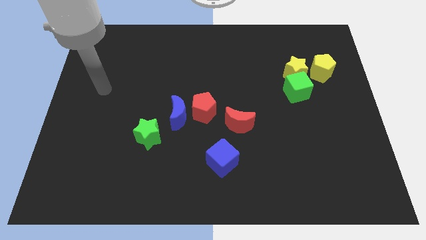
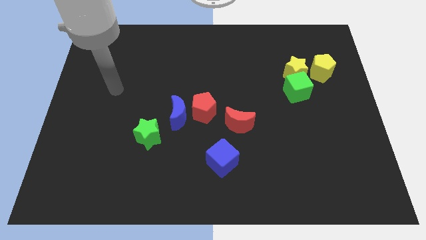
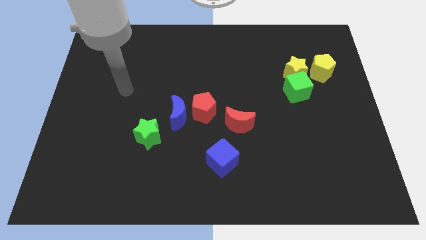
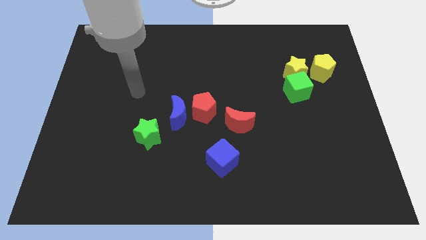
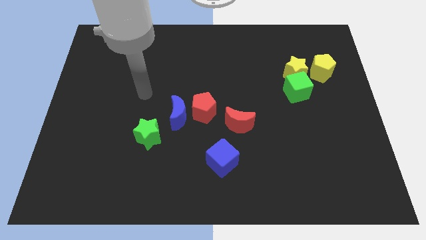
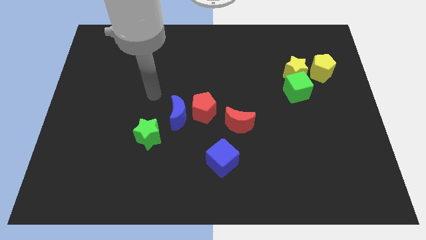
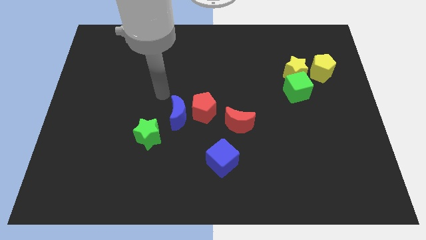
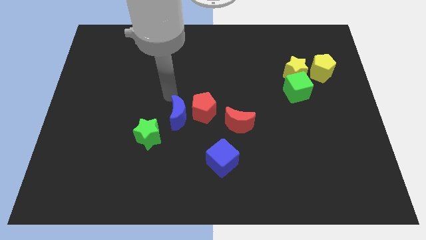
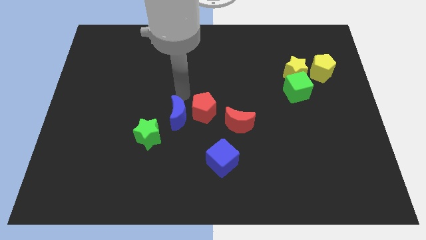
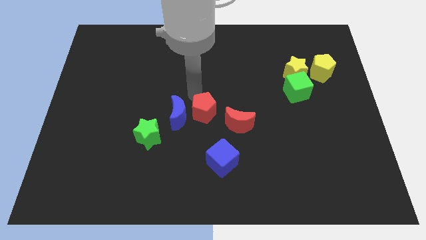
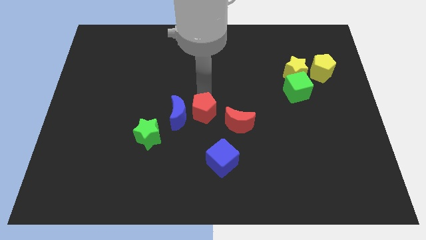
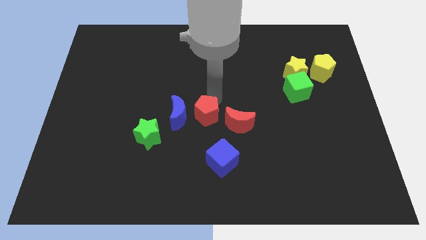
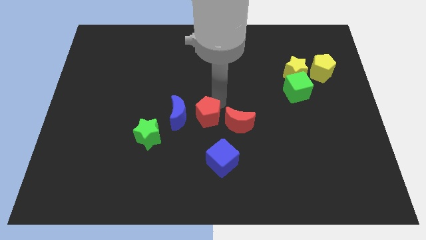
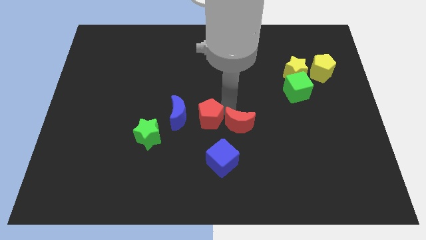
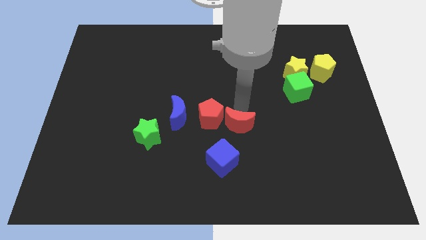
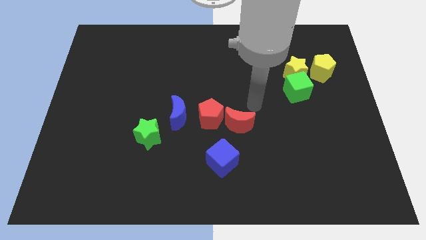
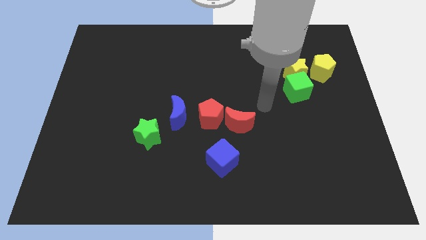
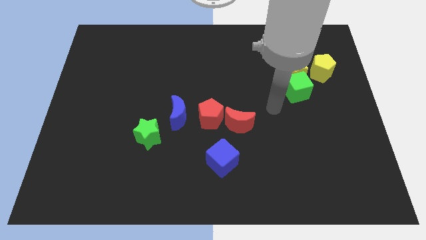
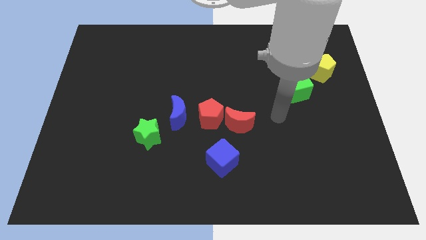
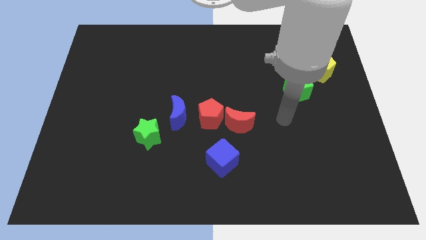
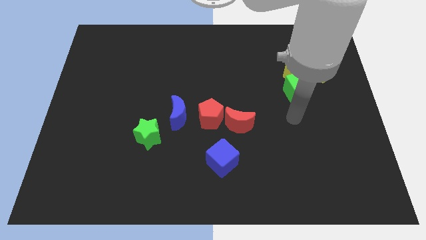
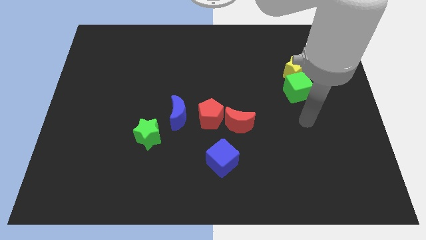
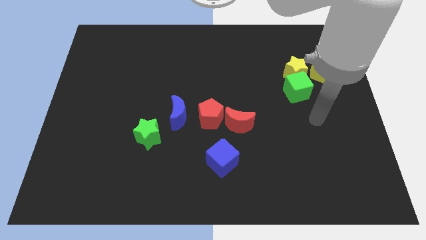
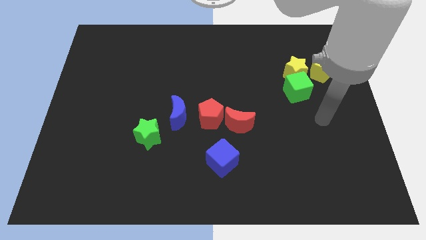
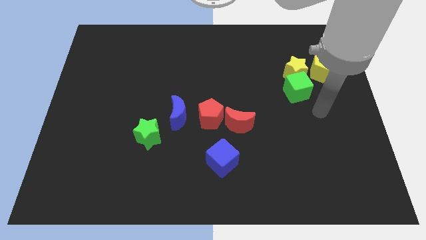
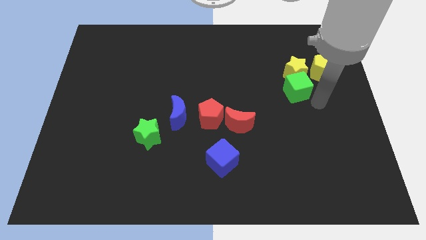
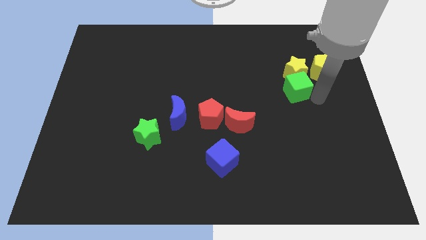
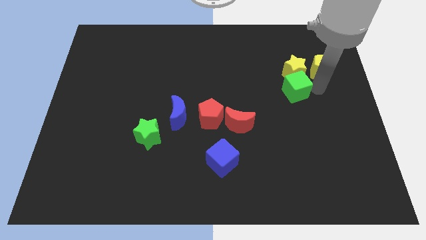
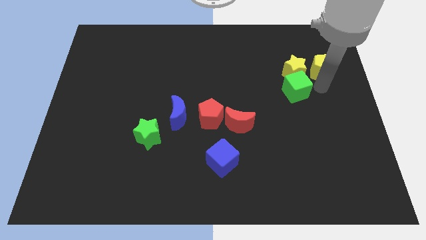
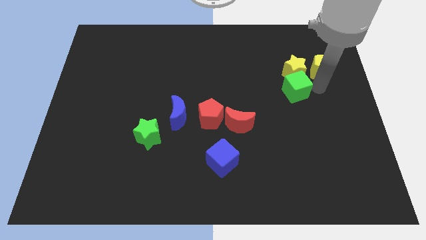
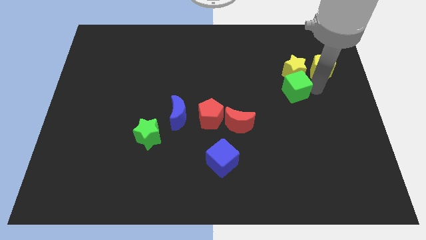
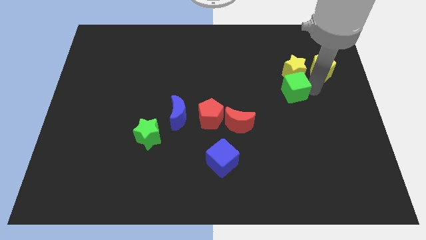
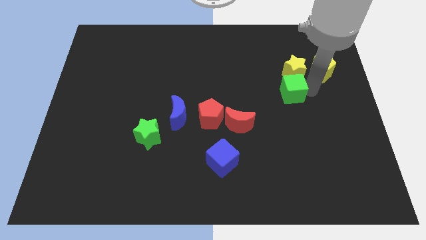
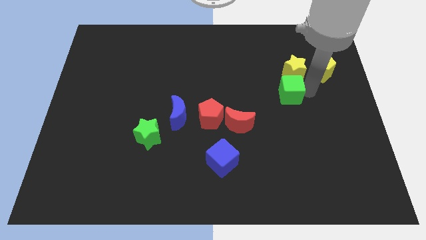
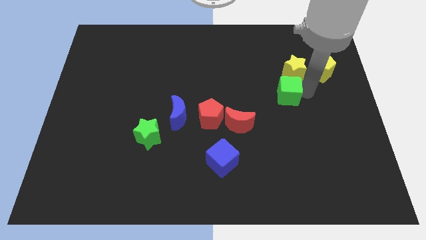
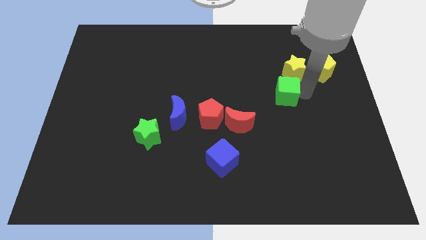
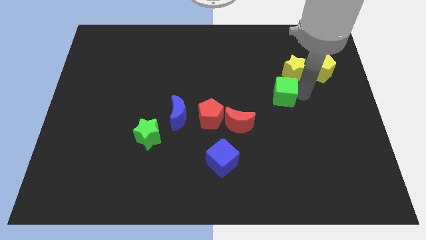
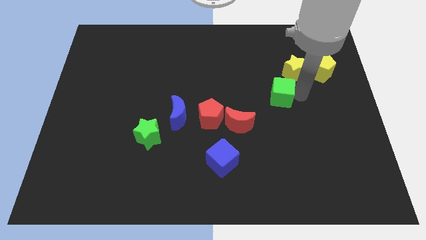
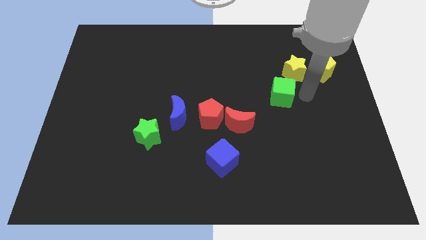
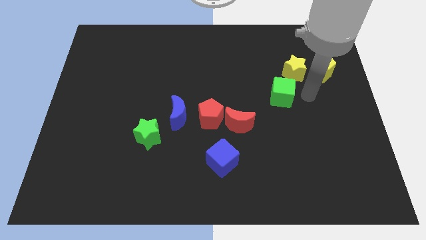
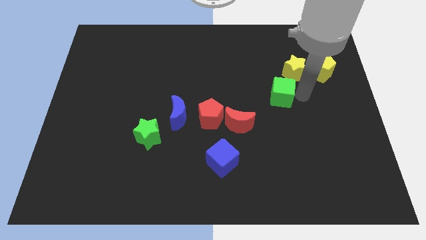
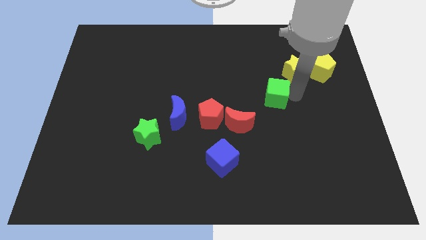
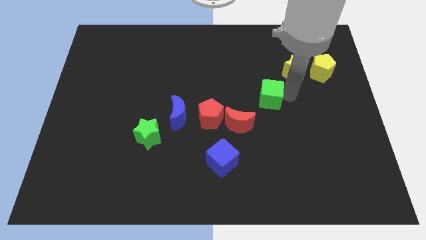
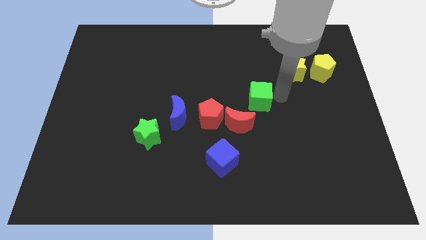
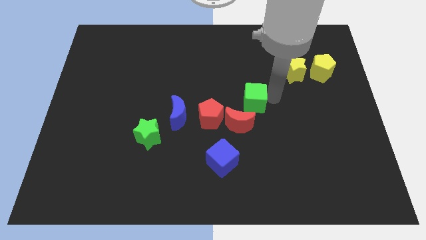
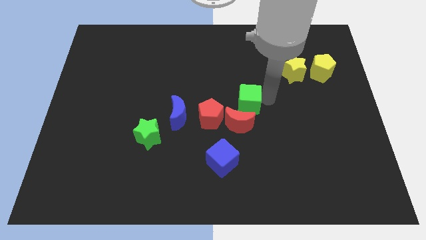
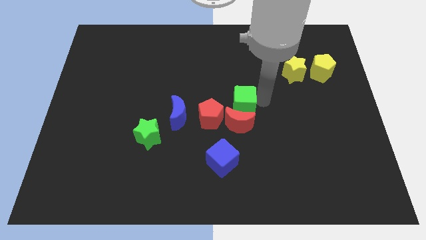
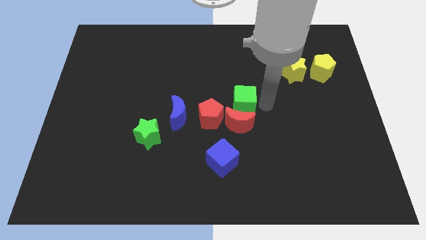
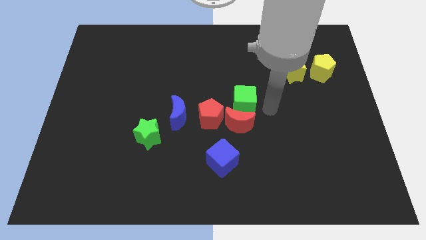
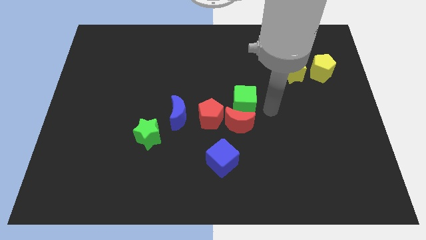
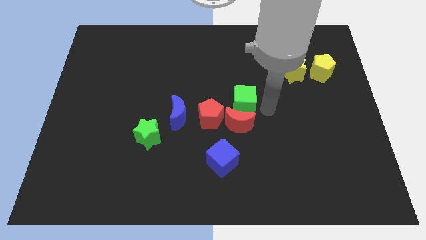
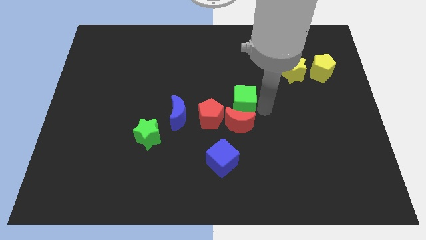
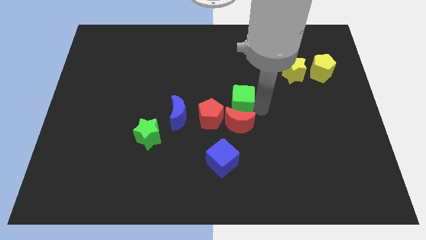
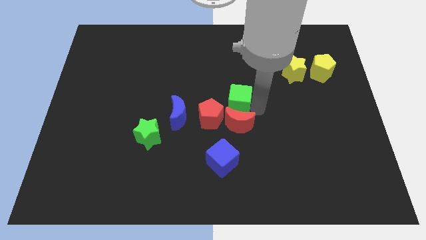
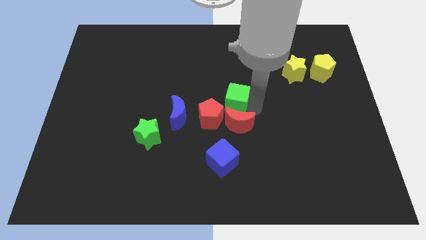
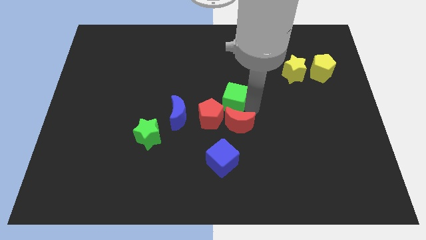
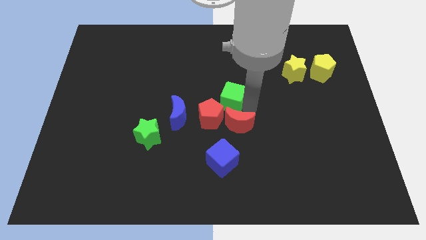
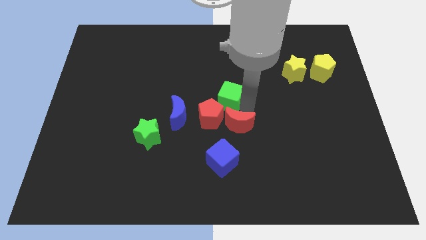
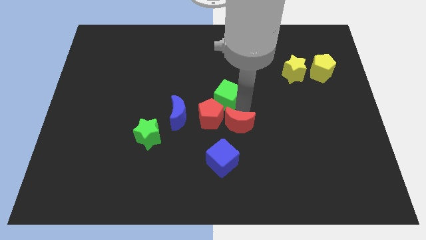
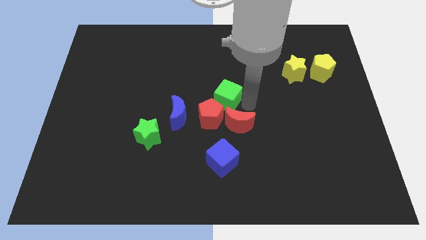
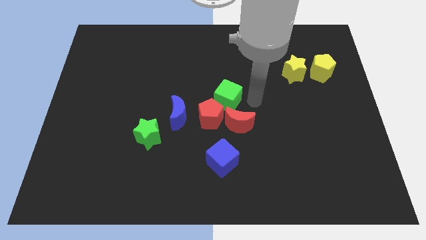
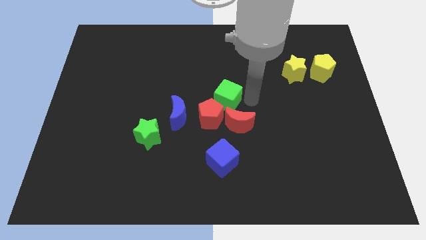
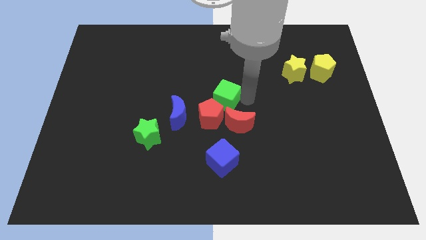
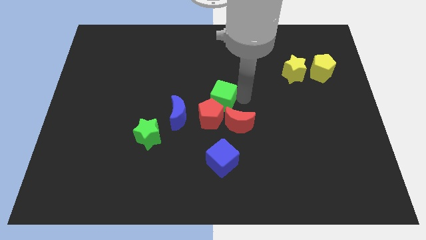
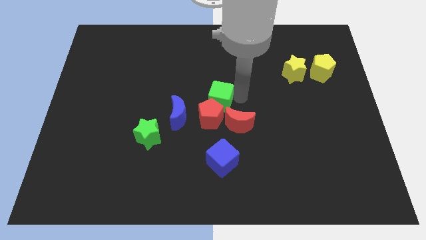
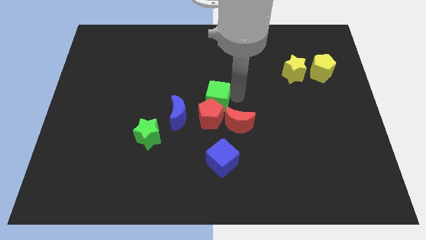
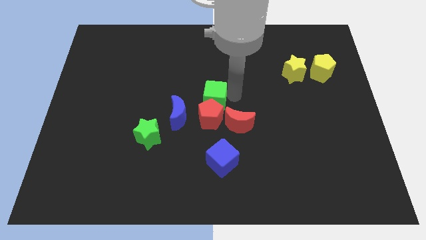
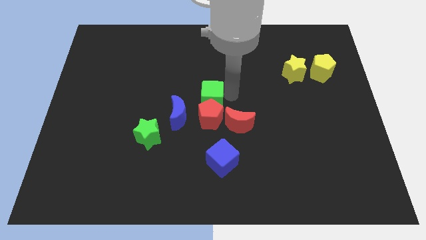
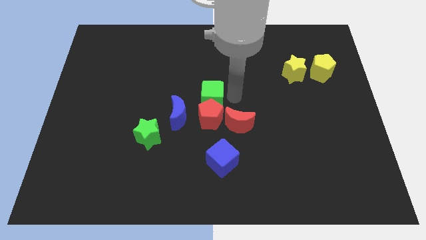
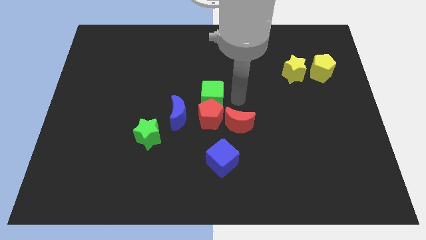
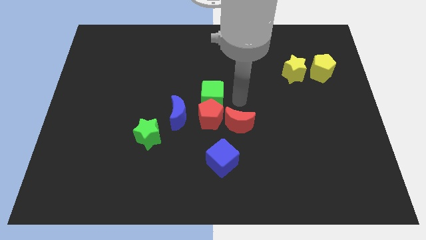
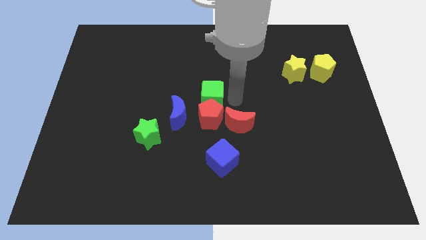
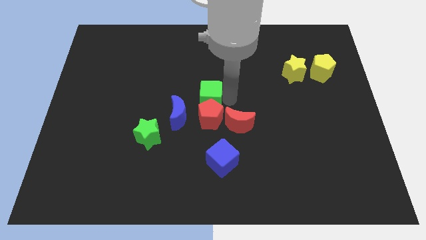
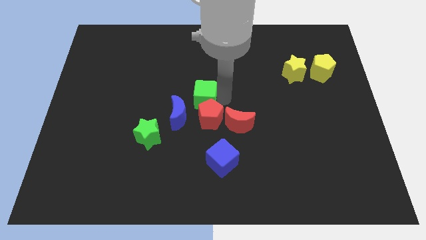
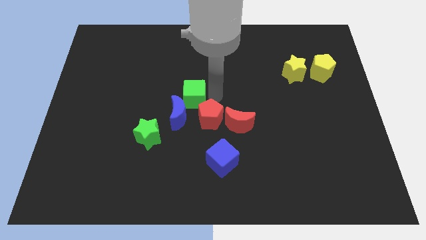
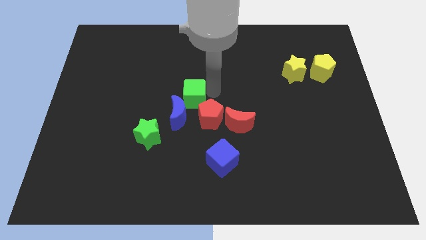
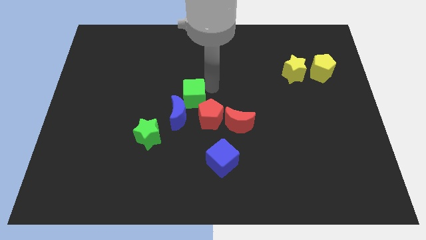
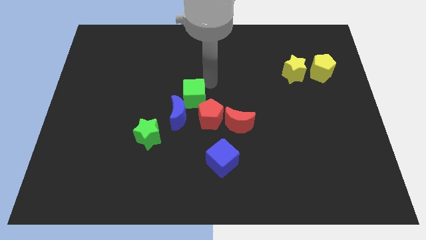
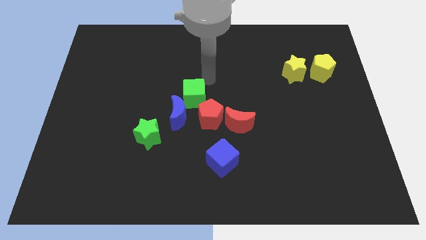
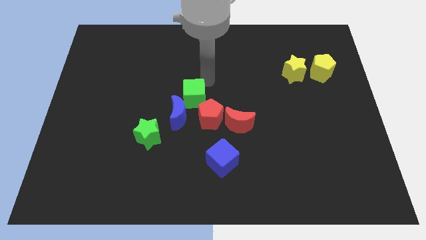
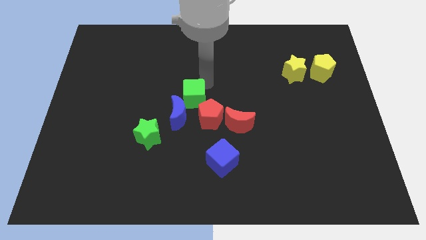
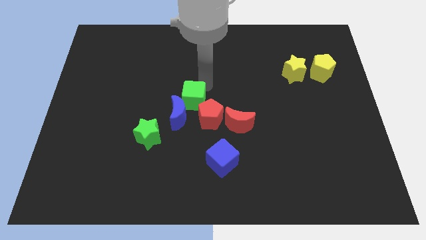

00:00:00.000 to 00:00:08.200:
move the green cube close to the blue moon
